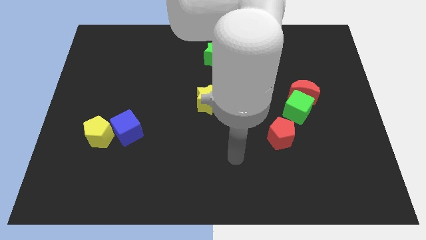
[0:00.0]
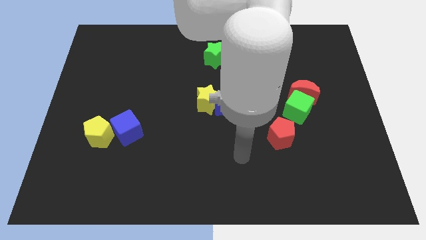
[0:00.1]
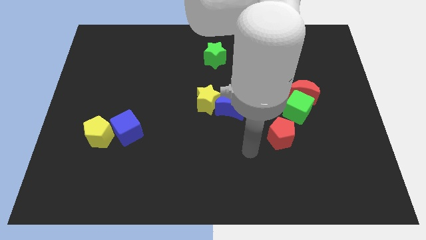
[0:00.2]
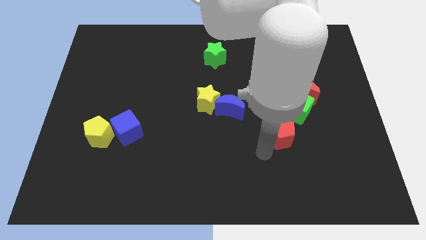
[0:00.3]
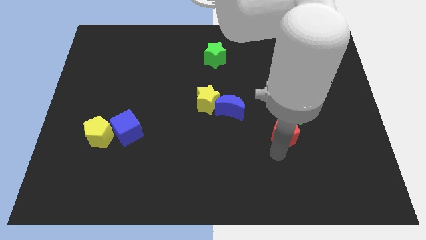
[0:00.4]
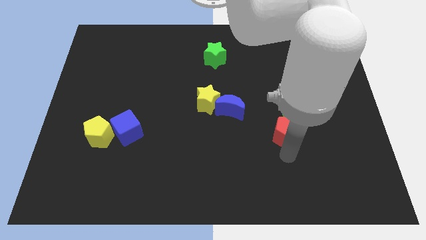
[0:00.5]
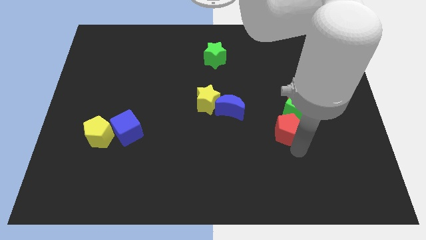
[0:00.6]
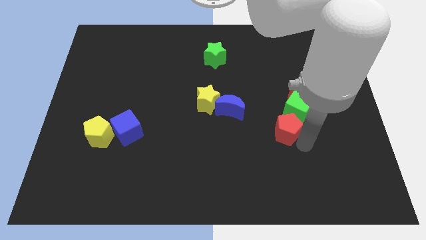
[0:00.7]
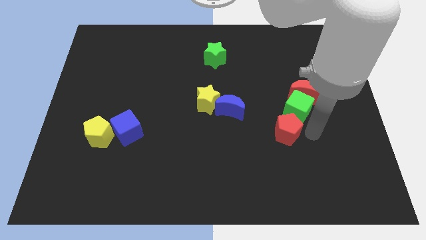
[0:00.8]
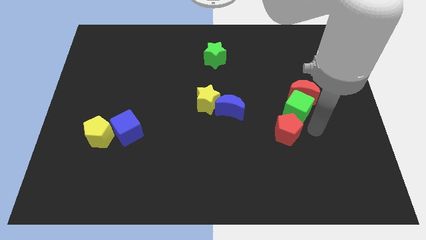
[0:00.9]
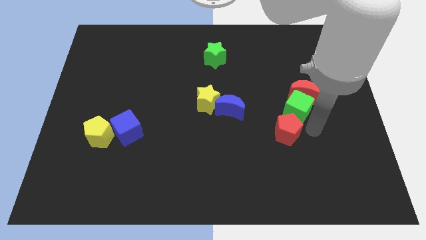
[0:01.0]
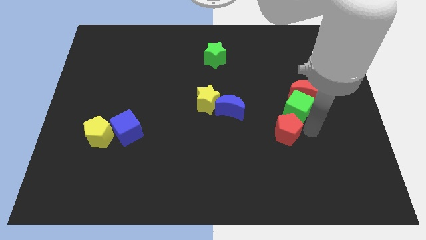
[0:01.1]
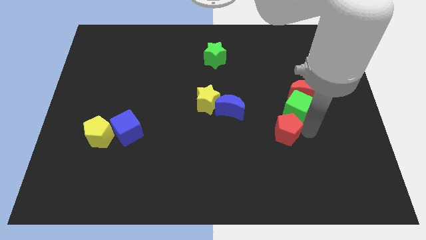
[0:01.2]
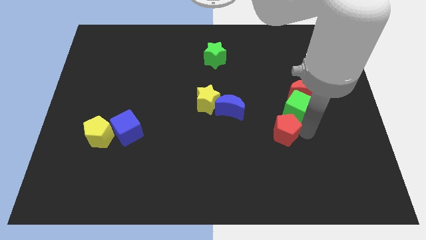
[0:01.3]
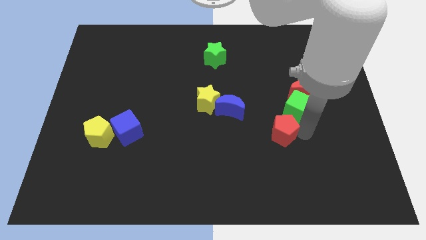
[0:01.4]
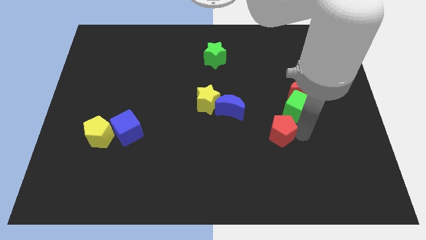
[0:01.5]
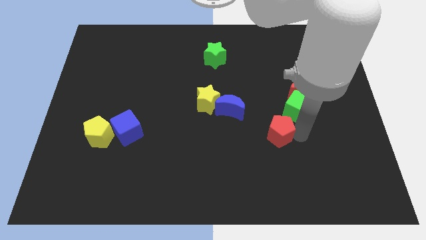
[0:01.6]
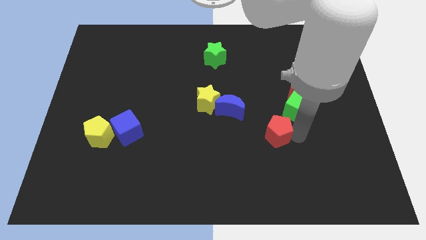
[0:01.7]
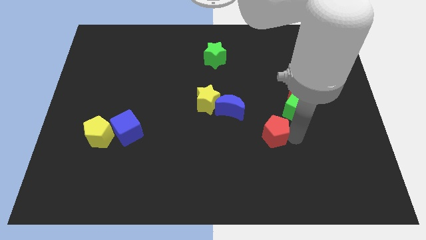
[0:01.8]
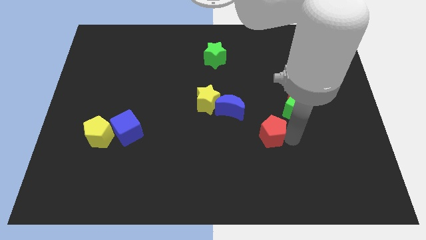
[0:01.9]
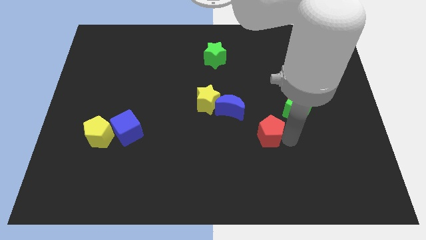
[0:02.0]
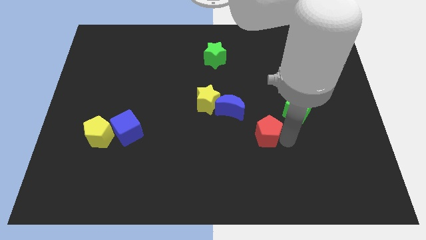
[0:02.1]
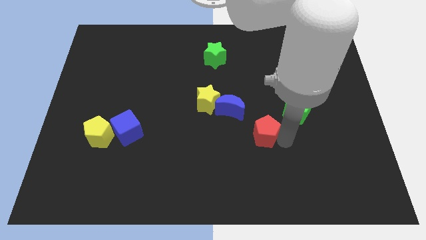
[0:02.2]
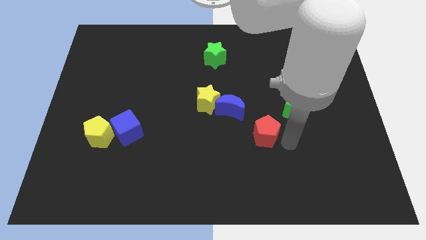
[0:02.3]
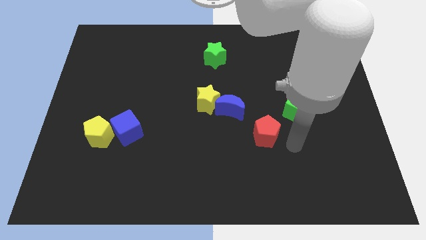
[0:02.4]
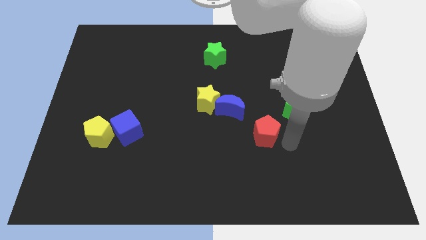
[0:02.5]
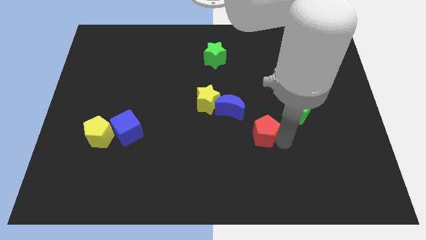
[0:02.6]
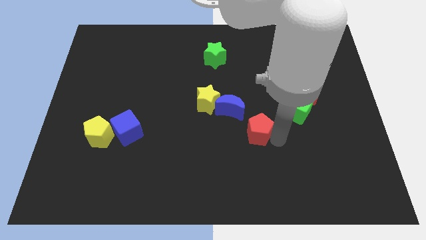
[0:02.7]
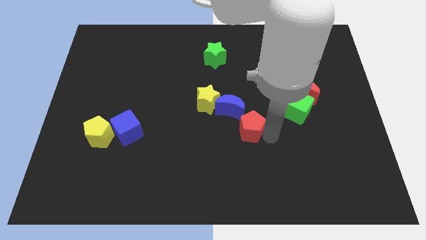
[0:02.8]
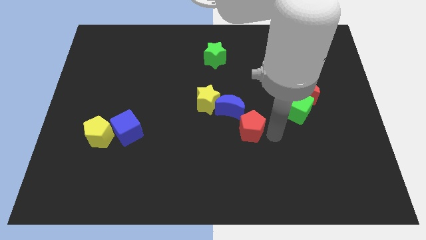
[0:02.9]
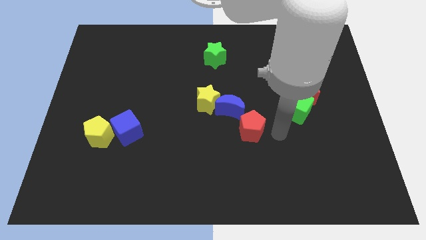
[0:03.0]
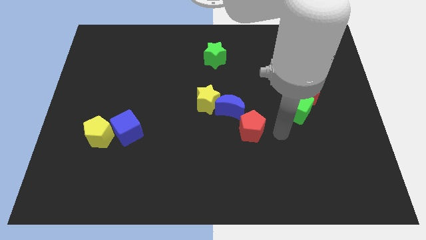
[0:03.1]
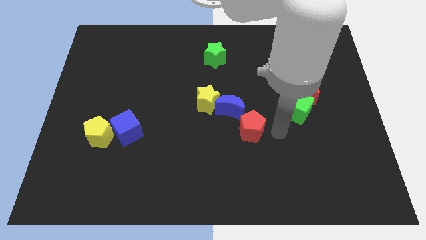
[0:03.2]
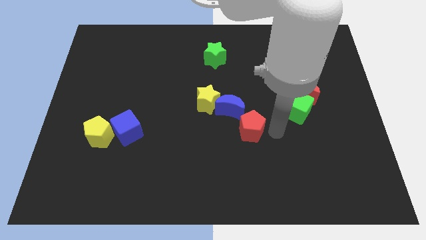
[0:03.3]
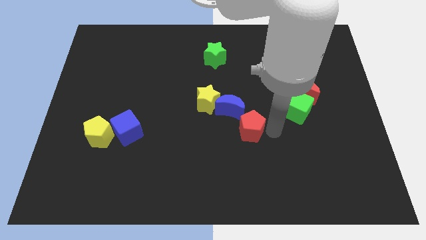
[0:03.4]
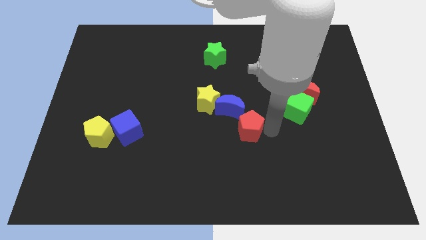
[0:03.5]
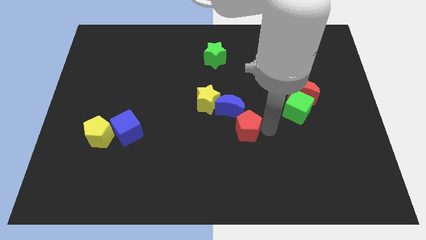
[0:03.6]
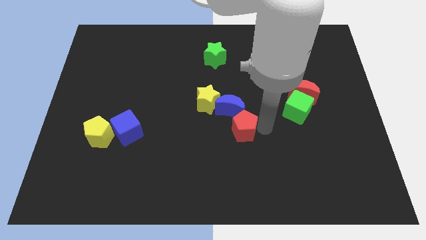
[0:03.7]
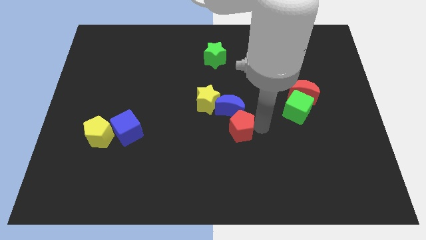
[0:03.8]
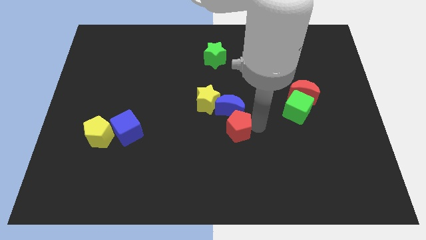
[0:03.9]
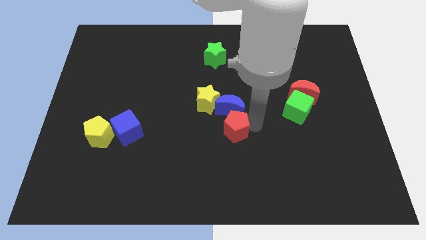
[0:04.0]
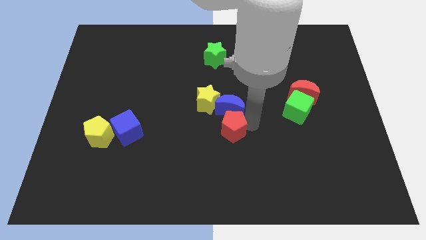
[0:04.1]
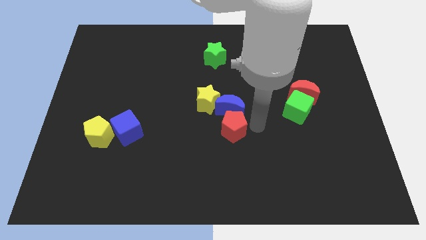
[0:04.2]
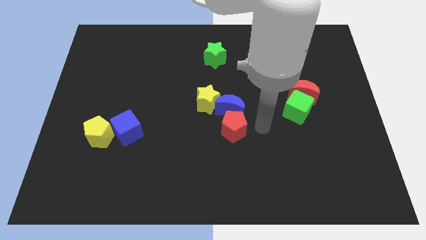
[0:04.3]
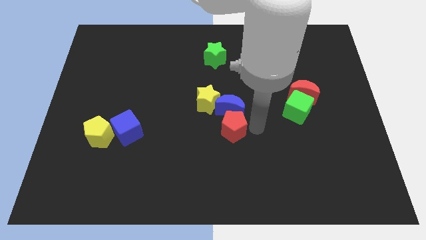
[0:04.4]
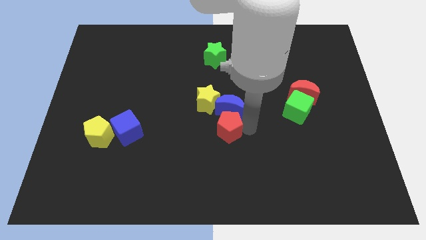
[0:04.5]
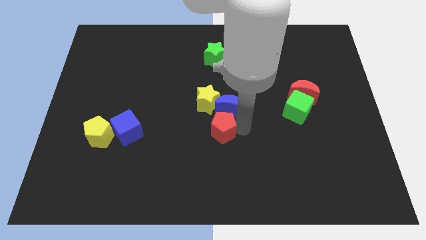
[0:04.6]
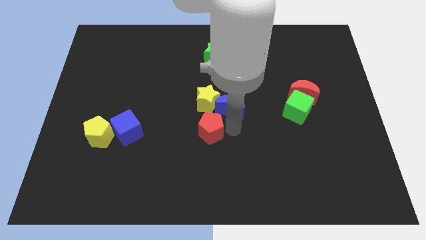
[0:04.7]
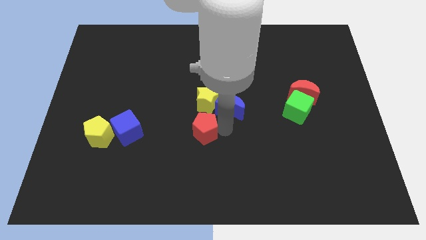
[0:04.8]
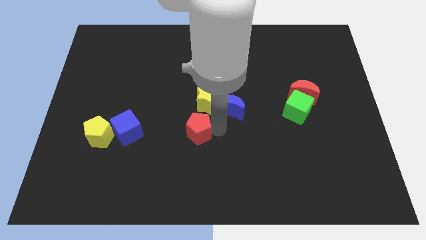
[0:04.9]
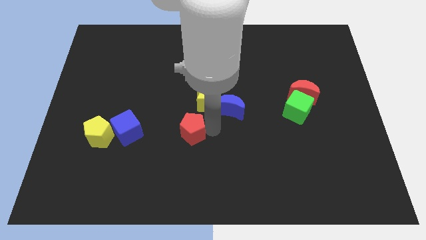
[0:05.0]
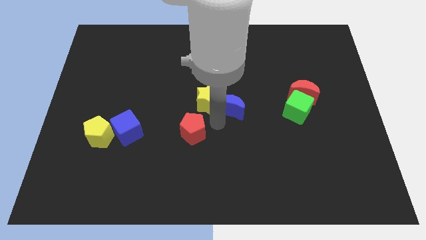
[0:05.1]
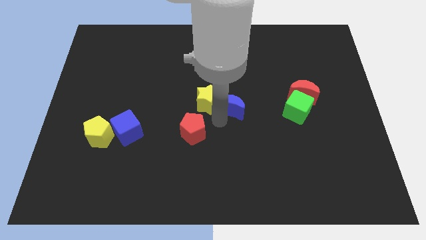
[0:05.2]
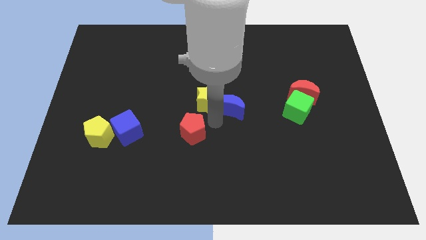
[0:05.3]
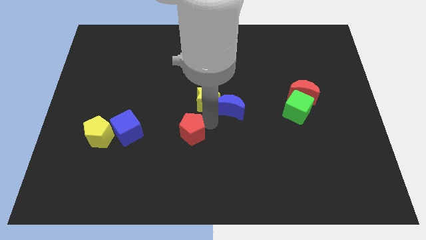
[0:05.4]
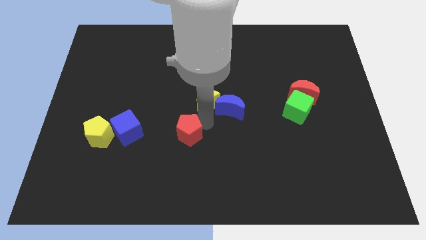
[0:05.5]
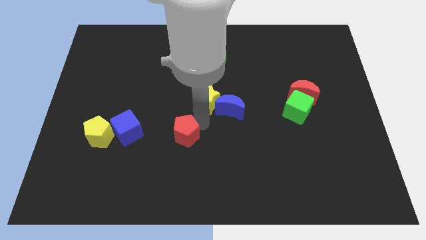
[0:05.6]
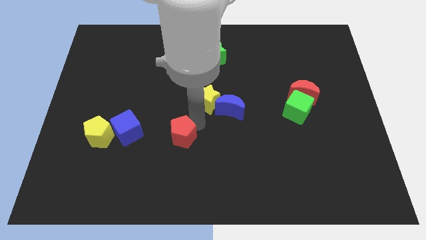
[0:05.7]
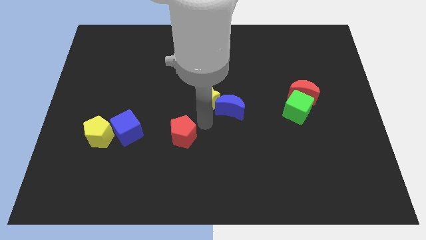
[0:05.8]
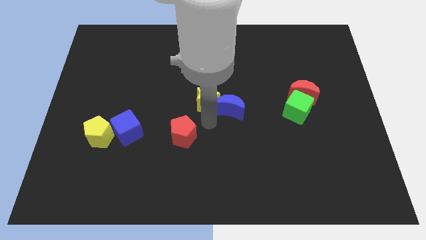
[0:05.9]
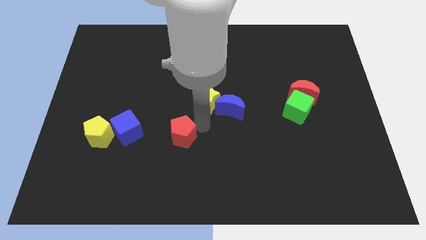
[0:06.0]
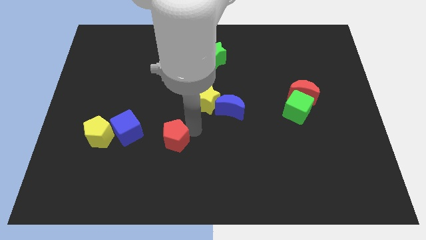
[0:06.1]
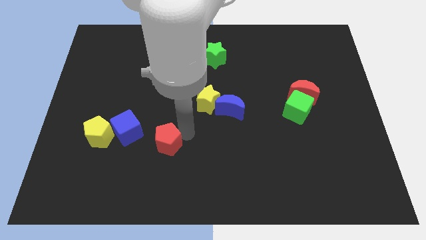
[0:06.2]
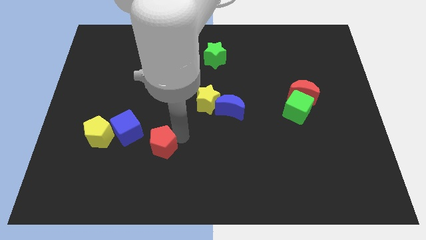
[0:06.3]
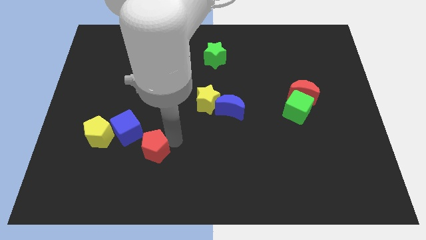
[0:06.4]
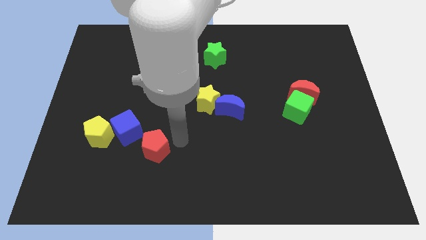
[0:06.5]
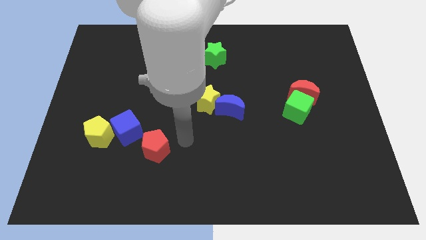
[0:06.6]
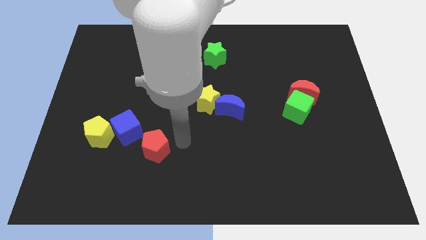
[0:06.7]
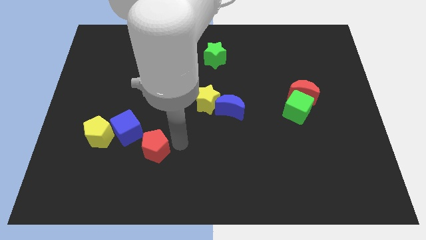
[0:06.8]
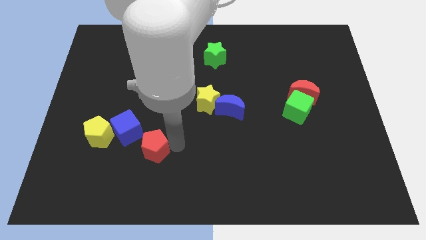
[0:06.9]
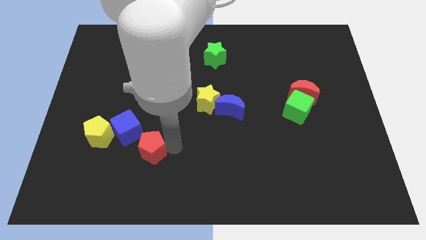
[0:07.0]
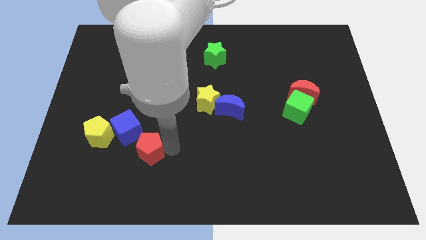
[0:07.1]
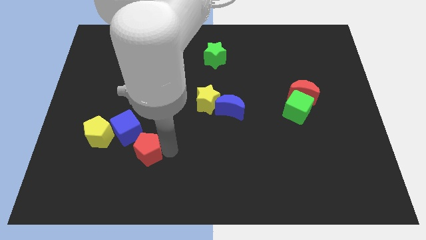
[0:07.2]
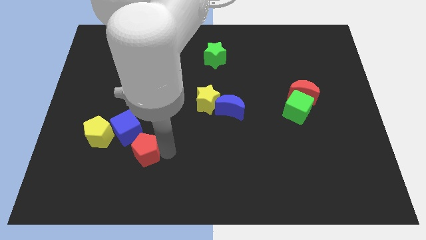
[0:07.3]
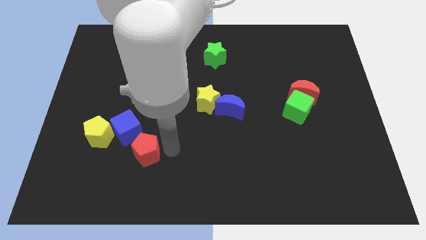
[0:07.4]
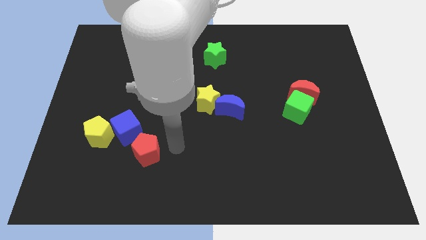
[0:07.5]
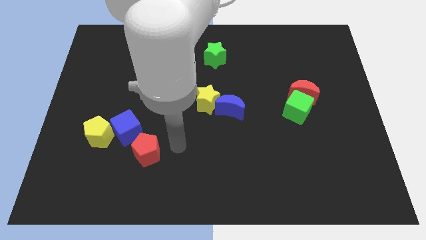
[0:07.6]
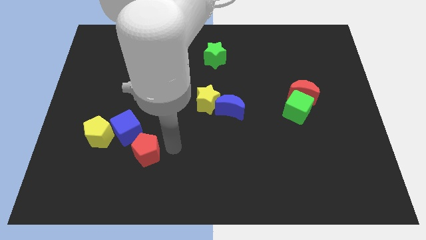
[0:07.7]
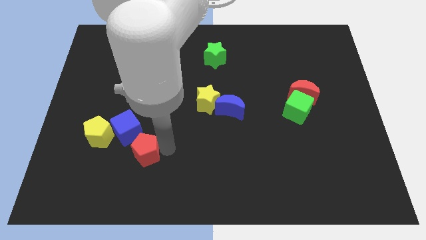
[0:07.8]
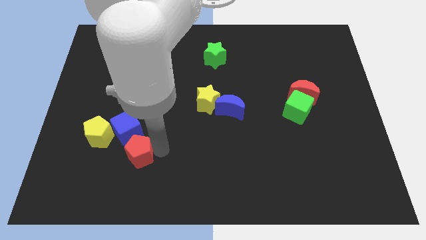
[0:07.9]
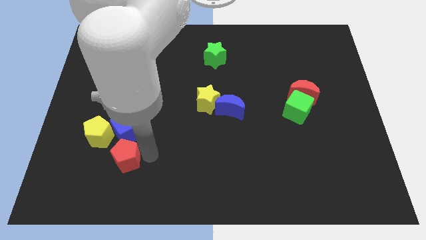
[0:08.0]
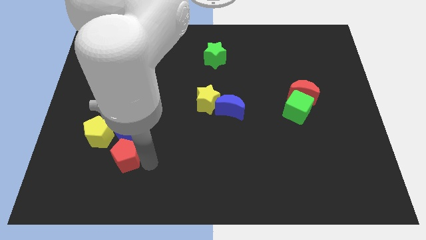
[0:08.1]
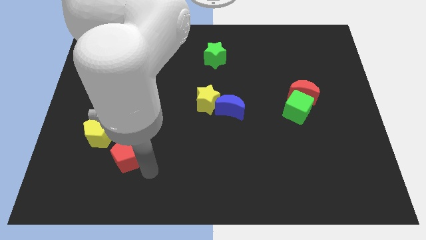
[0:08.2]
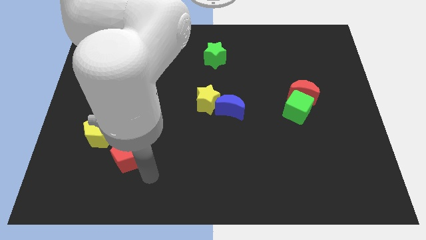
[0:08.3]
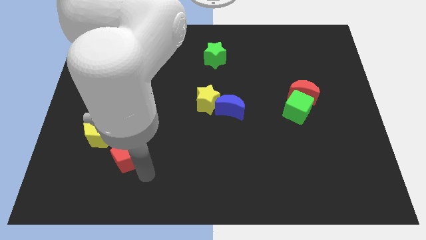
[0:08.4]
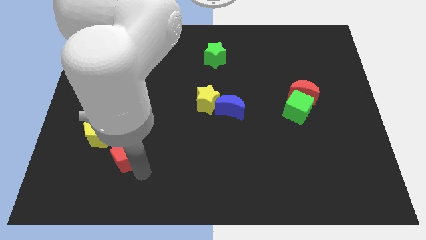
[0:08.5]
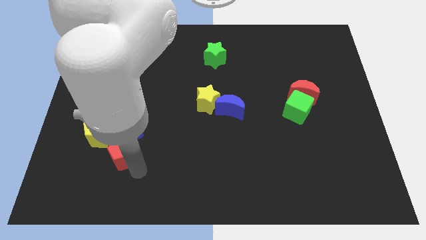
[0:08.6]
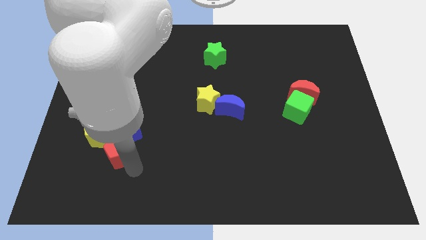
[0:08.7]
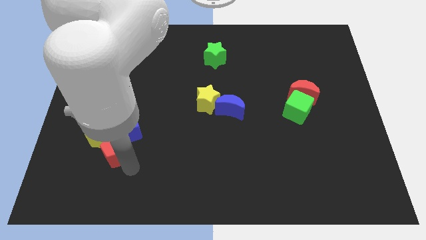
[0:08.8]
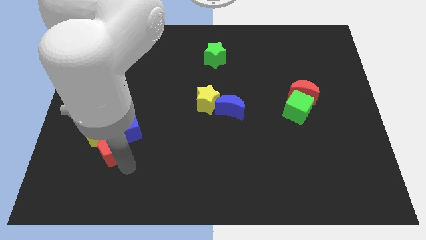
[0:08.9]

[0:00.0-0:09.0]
push the red pentagon close to the yellow pentagon
